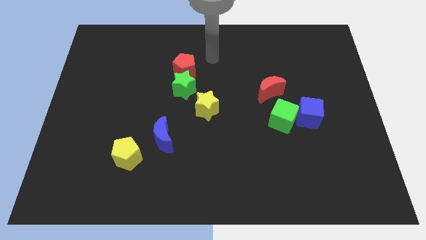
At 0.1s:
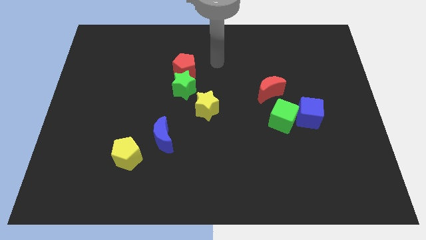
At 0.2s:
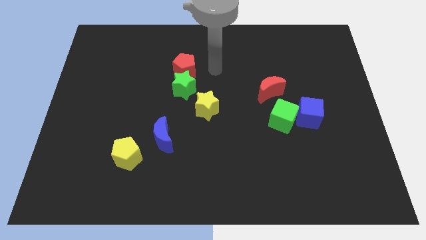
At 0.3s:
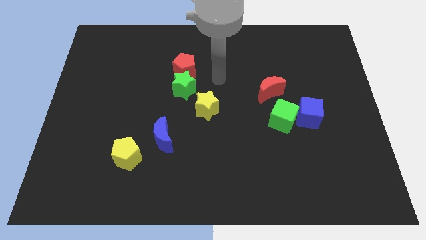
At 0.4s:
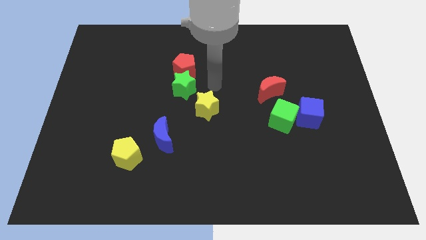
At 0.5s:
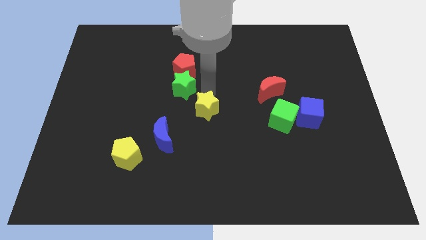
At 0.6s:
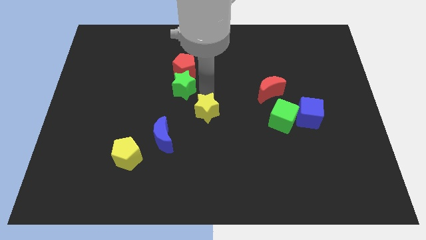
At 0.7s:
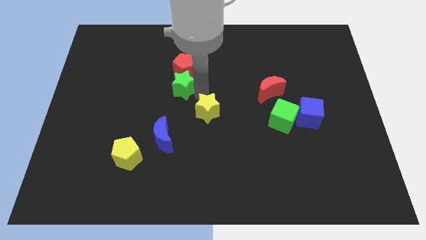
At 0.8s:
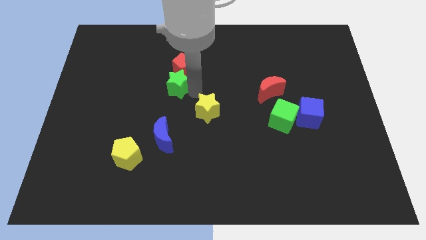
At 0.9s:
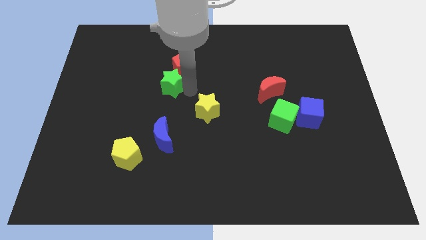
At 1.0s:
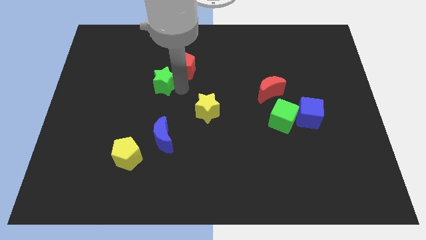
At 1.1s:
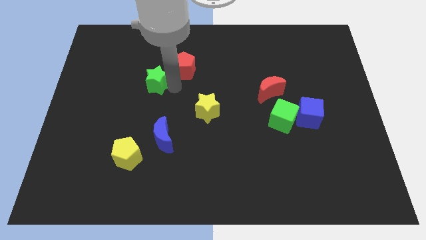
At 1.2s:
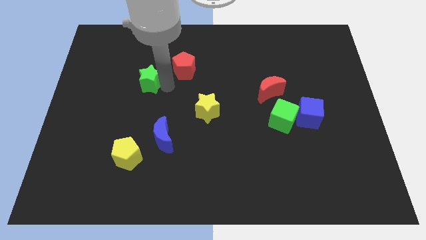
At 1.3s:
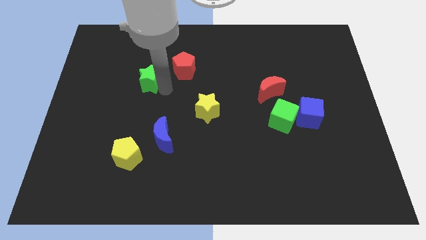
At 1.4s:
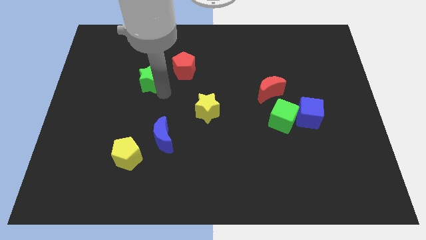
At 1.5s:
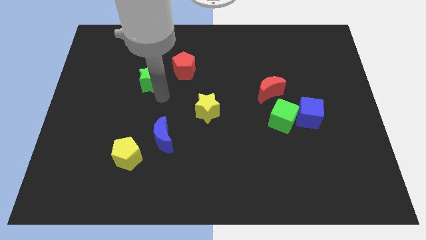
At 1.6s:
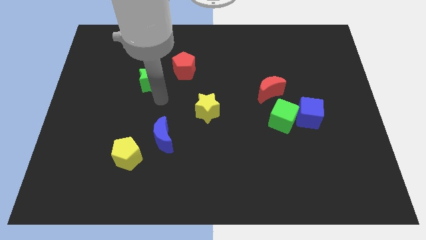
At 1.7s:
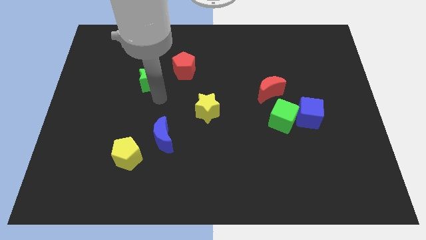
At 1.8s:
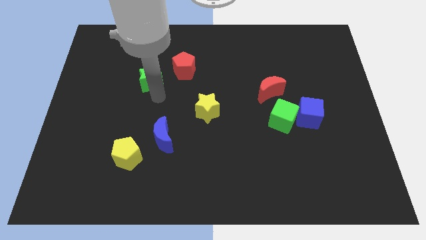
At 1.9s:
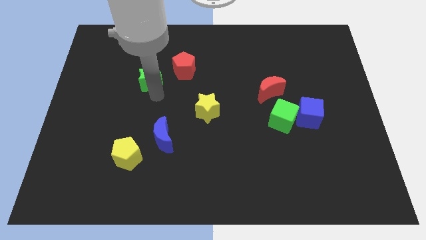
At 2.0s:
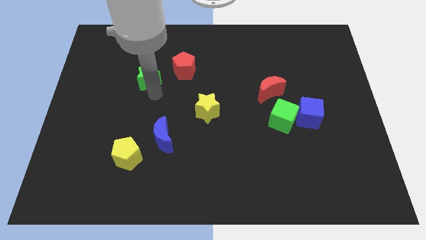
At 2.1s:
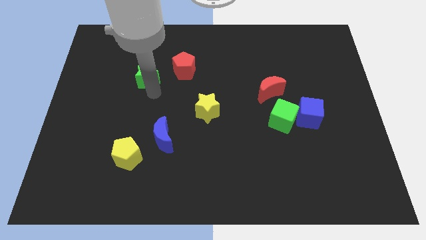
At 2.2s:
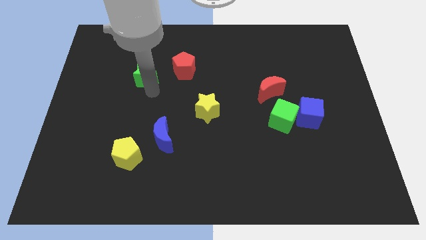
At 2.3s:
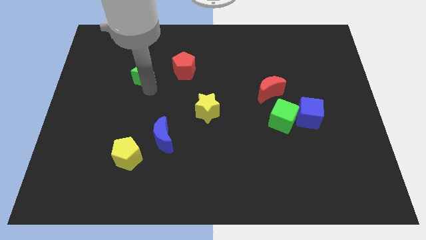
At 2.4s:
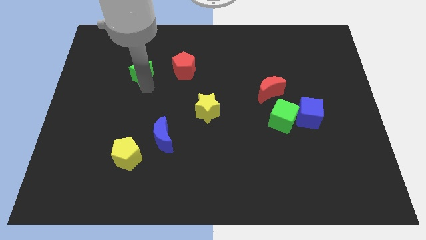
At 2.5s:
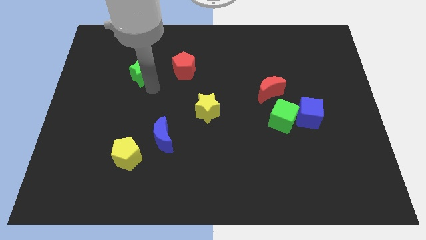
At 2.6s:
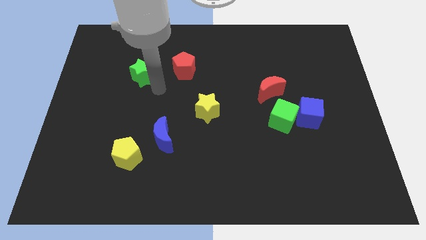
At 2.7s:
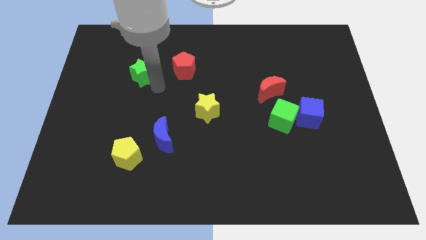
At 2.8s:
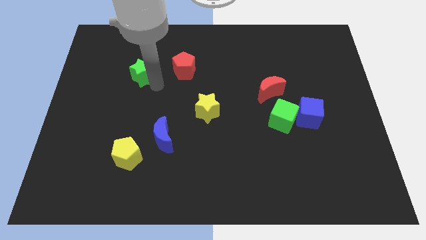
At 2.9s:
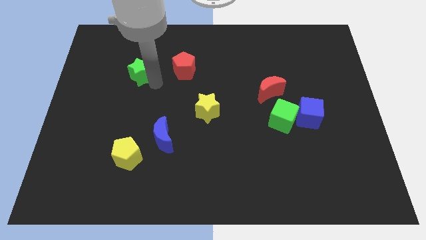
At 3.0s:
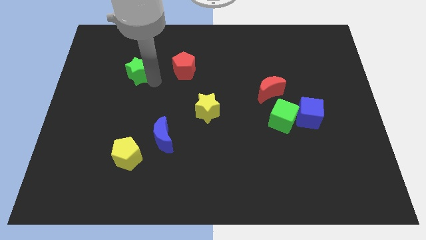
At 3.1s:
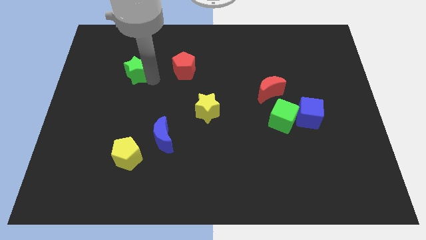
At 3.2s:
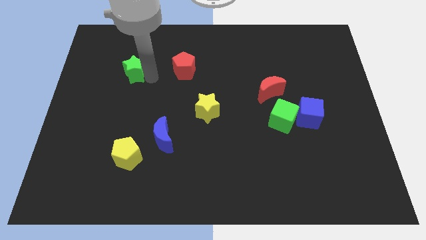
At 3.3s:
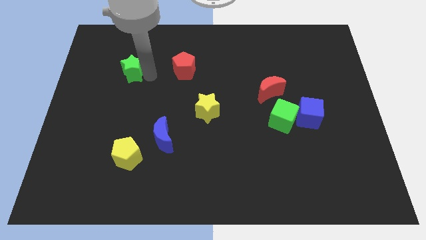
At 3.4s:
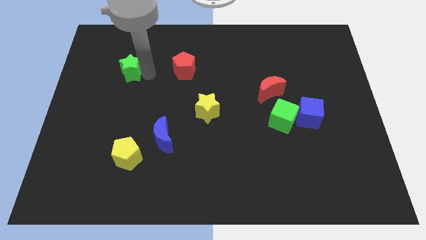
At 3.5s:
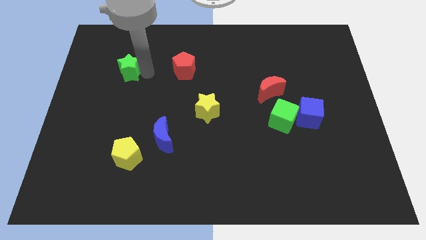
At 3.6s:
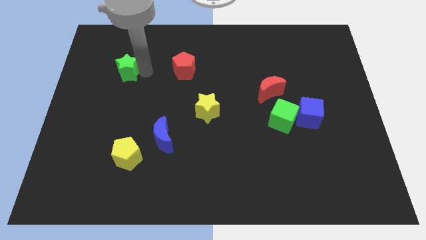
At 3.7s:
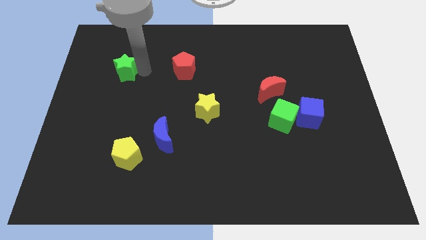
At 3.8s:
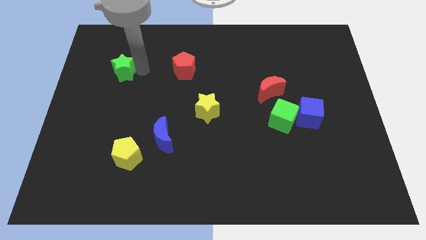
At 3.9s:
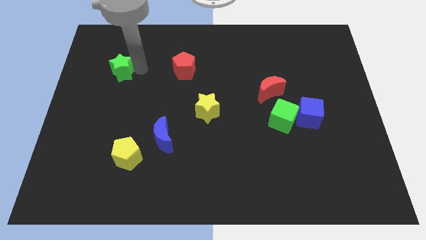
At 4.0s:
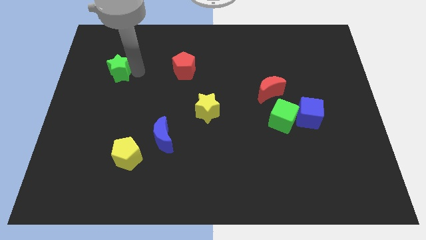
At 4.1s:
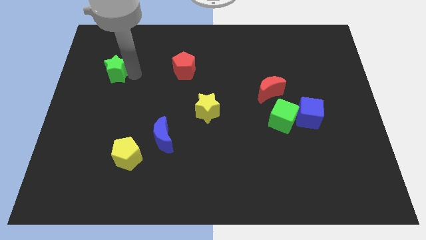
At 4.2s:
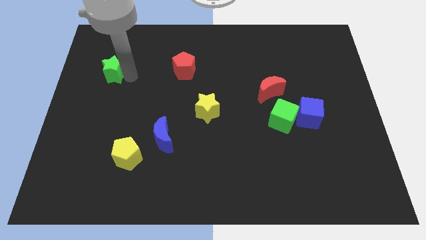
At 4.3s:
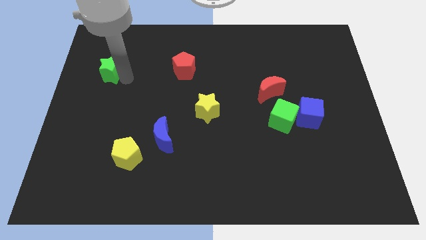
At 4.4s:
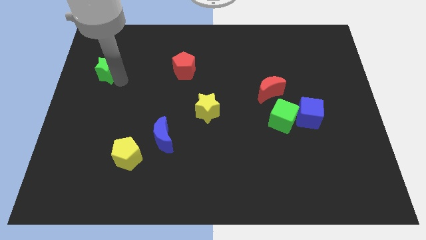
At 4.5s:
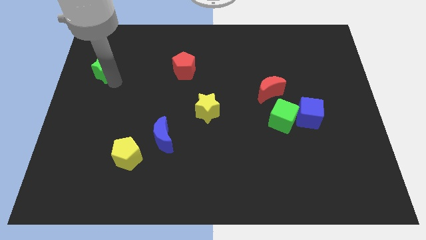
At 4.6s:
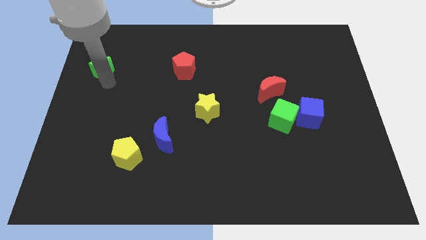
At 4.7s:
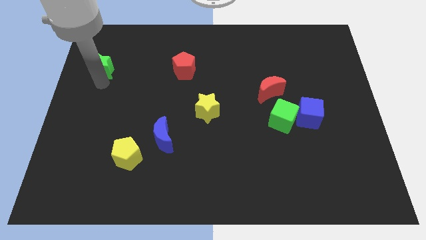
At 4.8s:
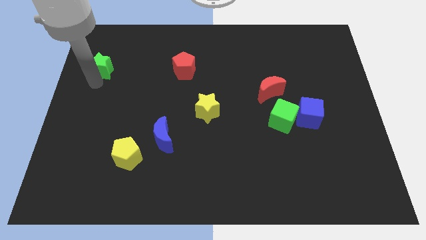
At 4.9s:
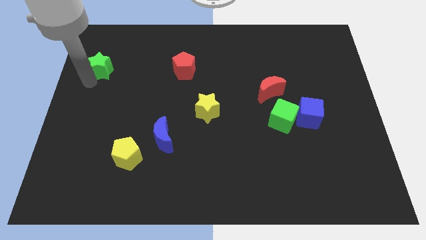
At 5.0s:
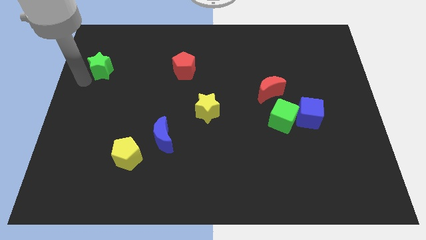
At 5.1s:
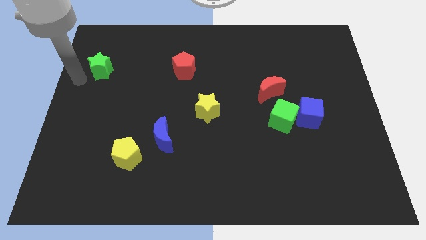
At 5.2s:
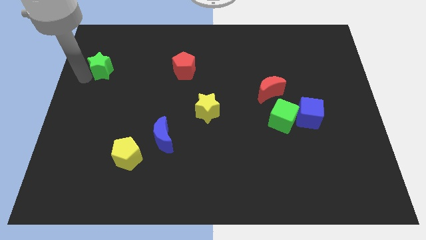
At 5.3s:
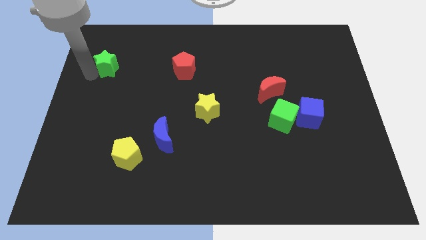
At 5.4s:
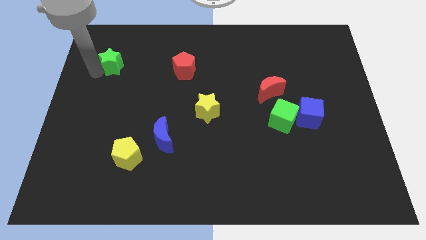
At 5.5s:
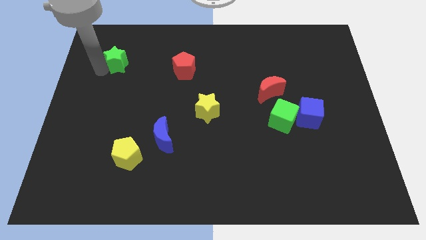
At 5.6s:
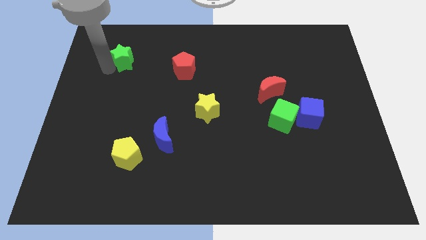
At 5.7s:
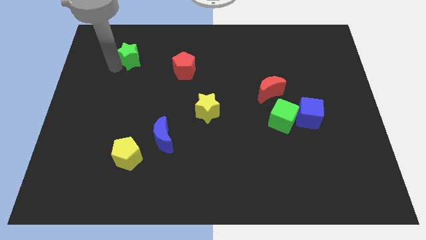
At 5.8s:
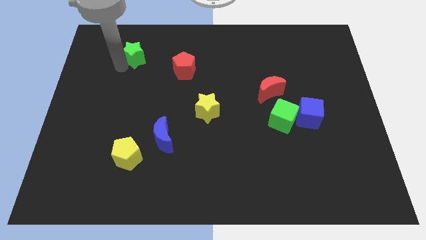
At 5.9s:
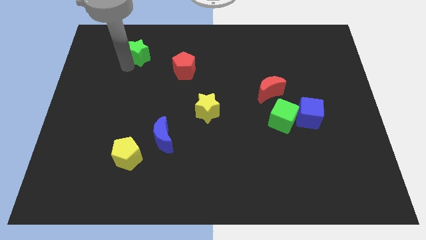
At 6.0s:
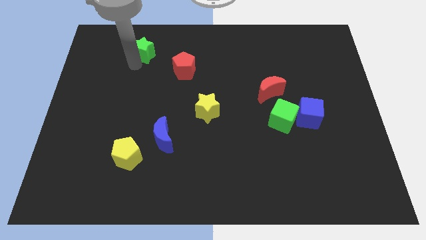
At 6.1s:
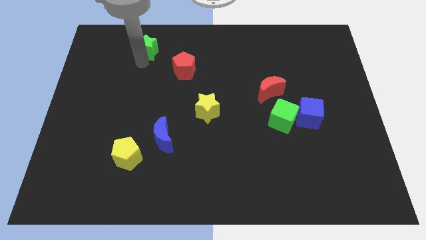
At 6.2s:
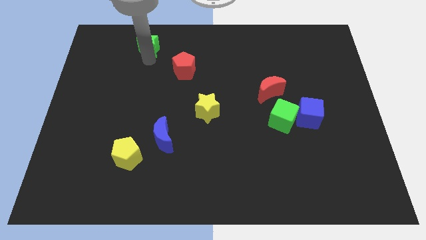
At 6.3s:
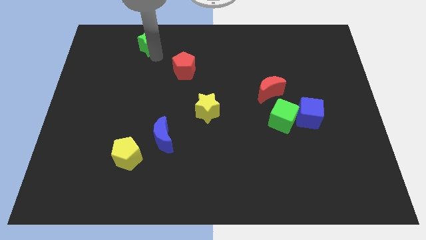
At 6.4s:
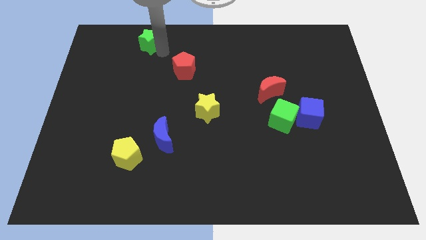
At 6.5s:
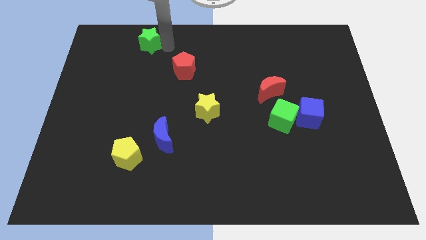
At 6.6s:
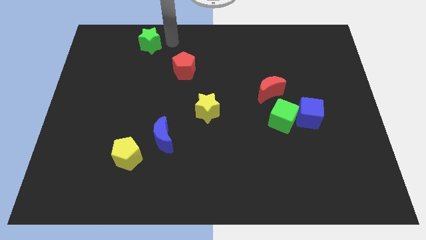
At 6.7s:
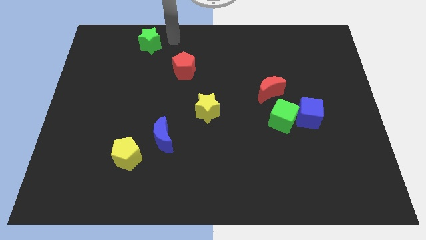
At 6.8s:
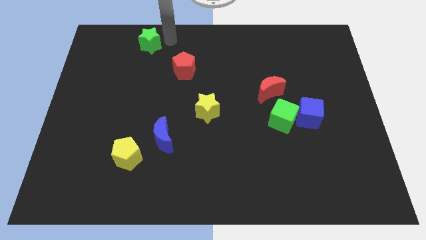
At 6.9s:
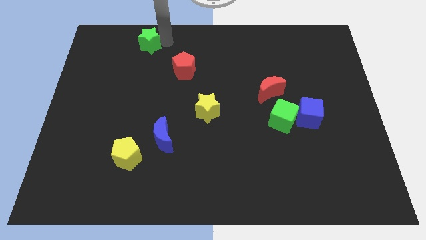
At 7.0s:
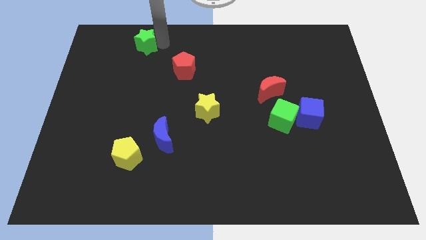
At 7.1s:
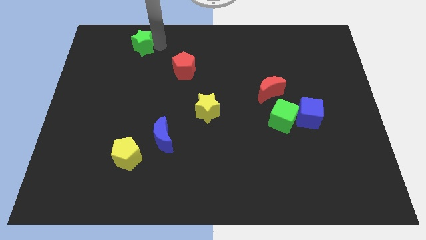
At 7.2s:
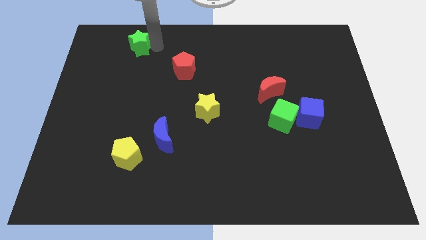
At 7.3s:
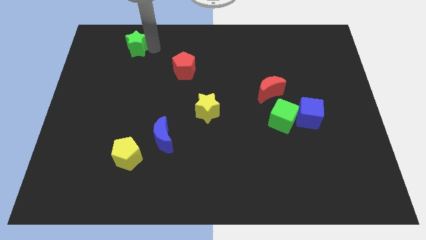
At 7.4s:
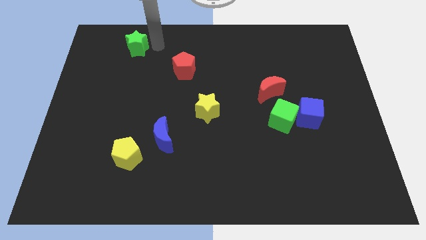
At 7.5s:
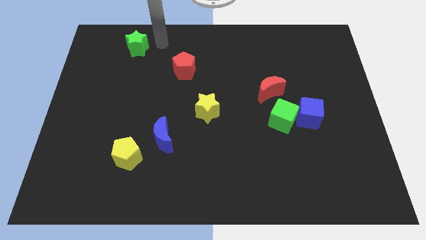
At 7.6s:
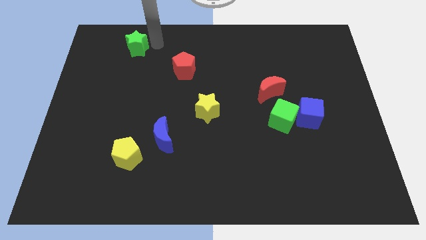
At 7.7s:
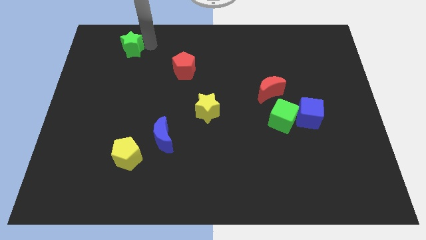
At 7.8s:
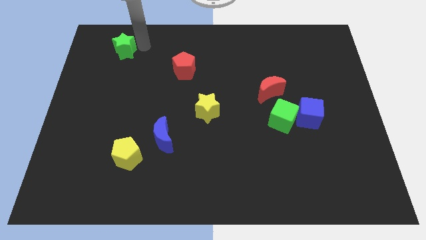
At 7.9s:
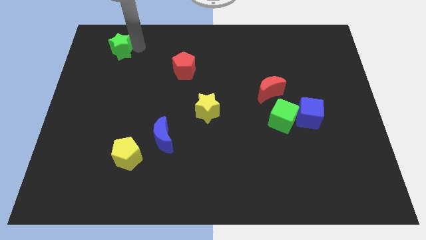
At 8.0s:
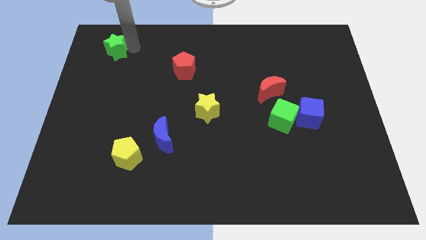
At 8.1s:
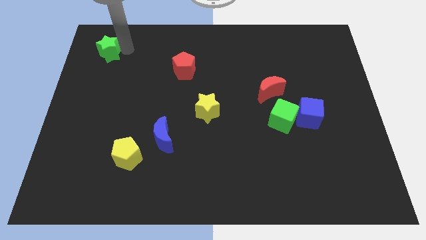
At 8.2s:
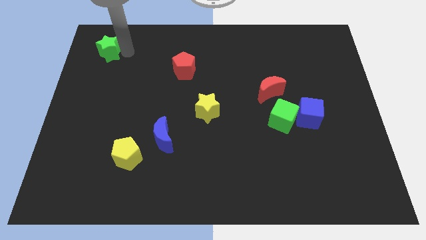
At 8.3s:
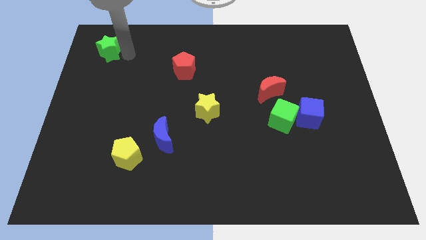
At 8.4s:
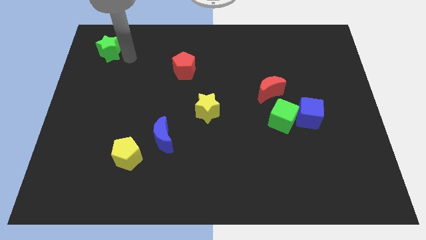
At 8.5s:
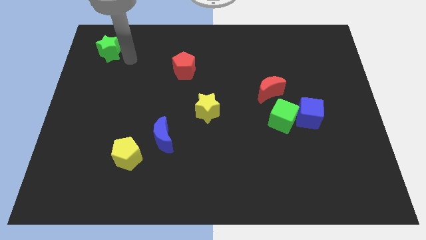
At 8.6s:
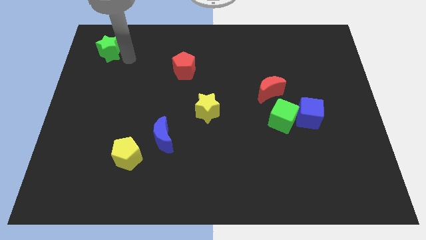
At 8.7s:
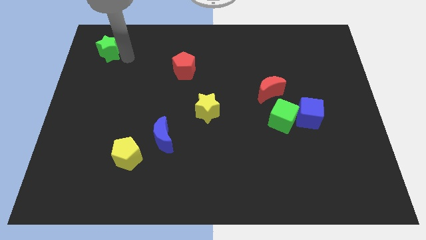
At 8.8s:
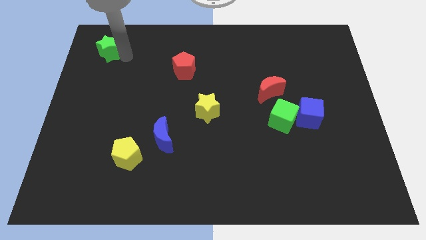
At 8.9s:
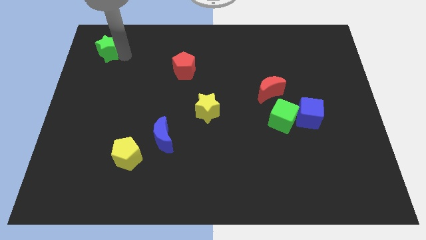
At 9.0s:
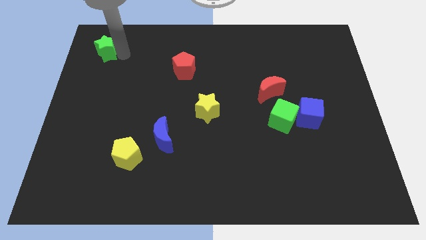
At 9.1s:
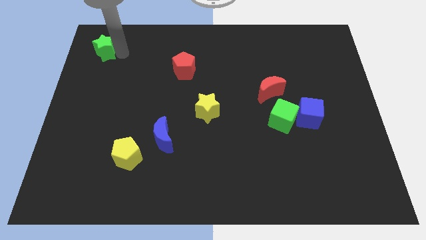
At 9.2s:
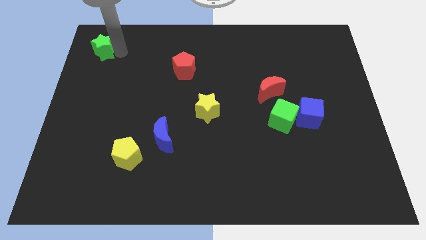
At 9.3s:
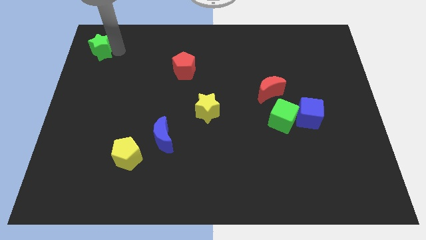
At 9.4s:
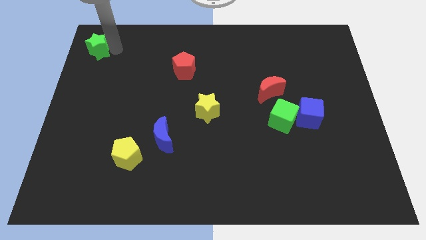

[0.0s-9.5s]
move the green star to the upper left corner
